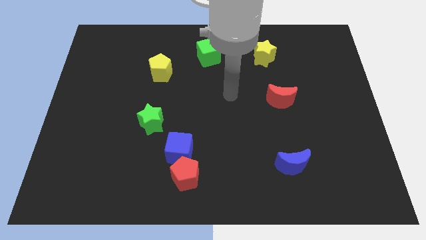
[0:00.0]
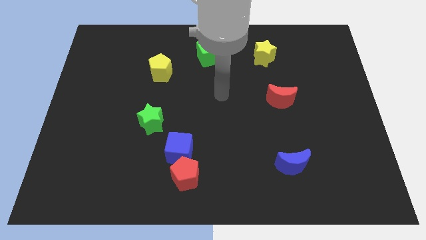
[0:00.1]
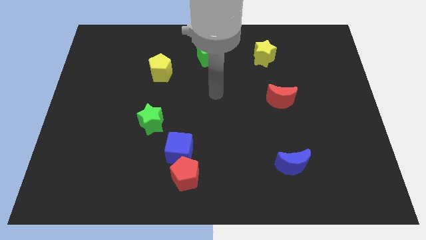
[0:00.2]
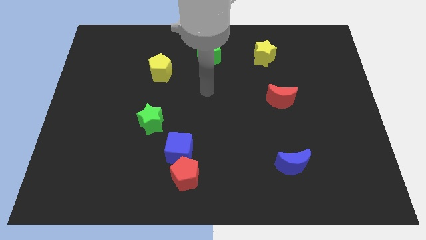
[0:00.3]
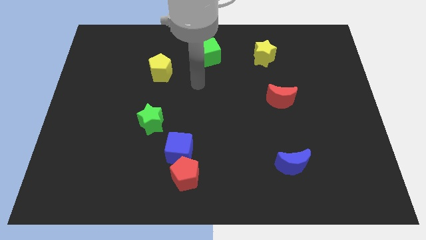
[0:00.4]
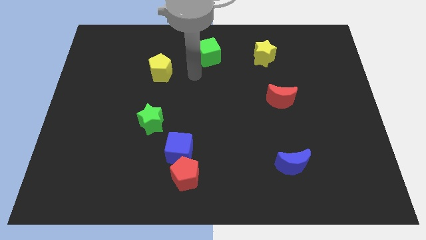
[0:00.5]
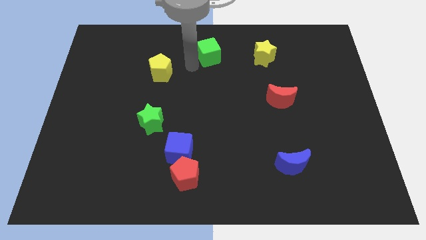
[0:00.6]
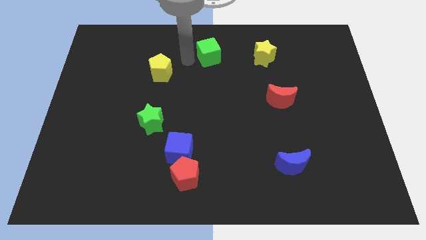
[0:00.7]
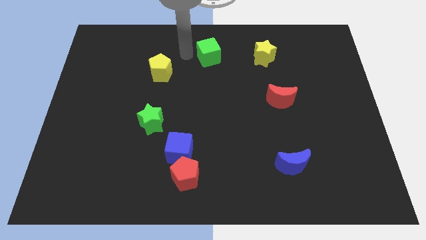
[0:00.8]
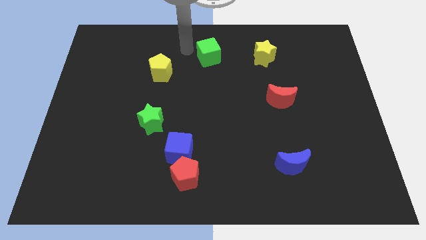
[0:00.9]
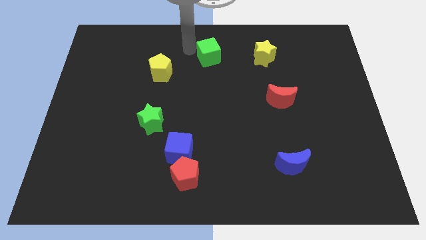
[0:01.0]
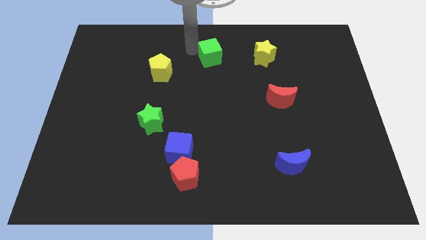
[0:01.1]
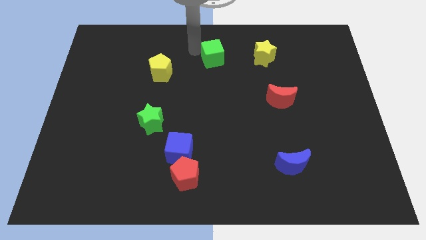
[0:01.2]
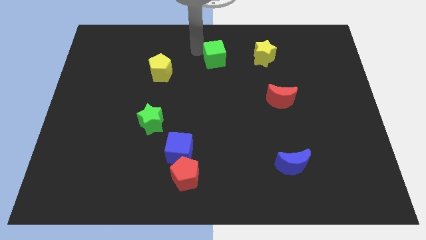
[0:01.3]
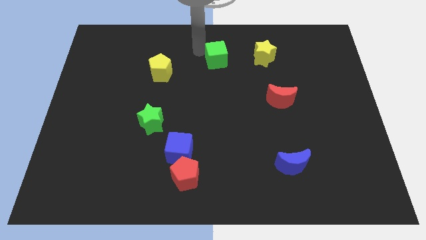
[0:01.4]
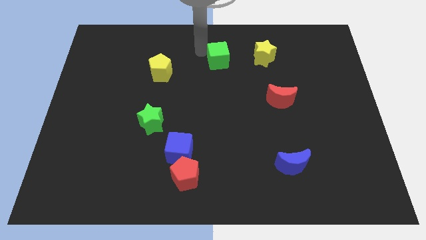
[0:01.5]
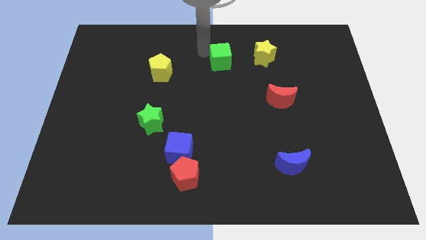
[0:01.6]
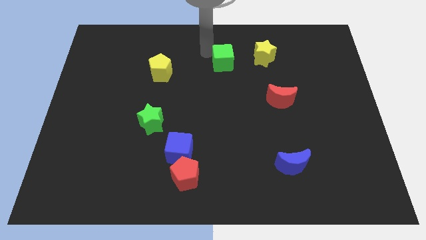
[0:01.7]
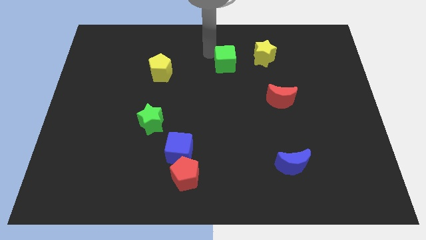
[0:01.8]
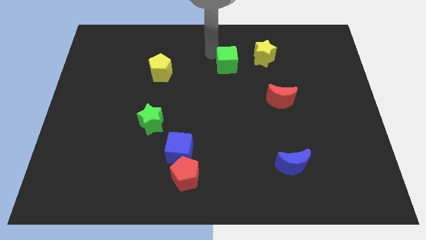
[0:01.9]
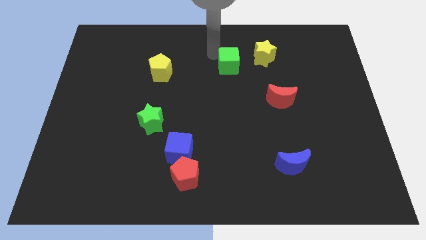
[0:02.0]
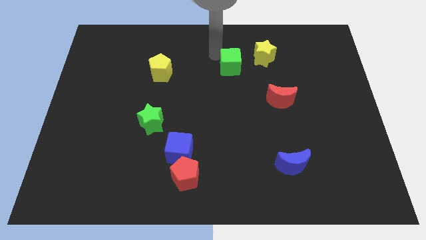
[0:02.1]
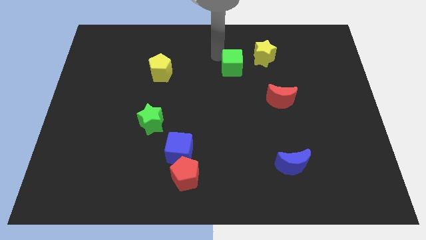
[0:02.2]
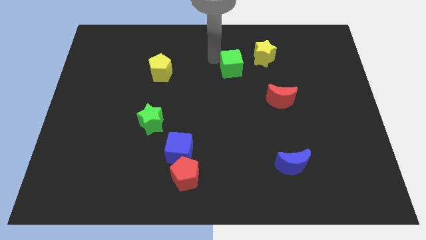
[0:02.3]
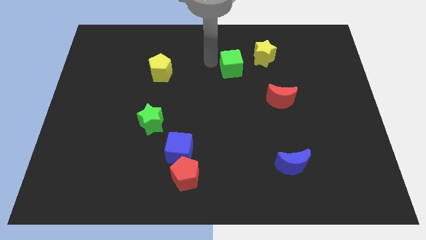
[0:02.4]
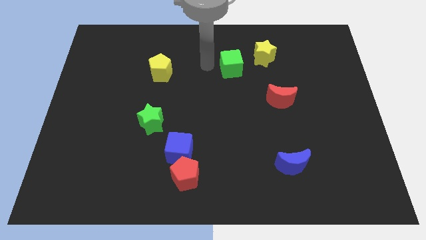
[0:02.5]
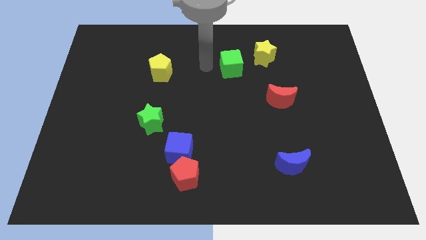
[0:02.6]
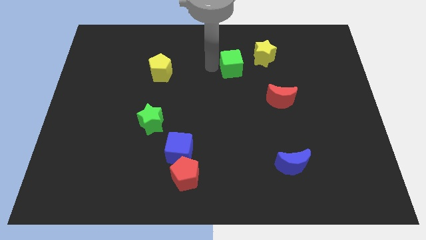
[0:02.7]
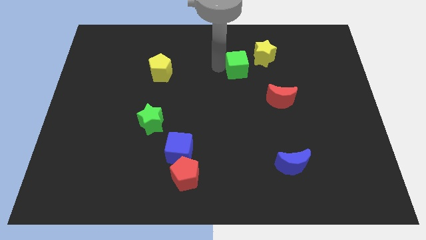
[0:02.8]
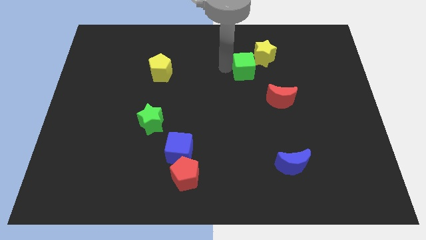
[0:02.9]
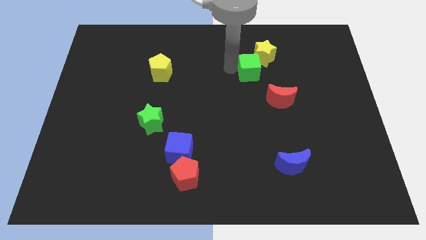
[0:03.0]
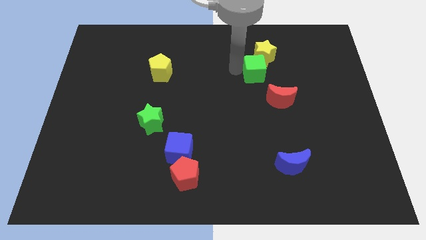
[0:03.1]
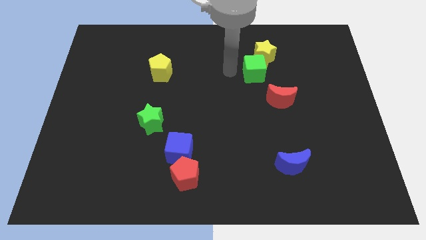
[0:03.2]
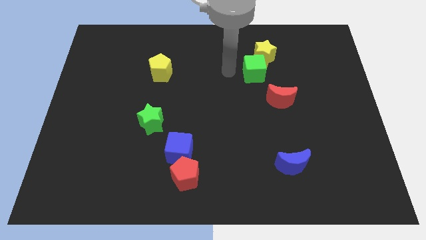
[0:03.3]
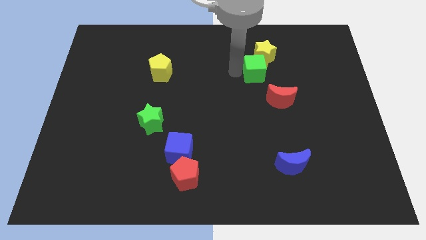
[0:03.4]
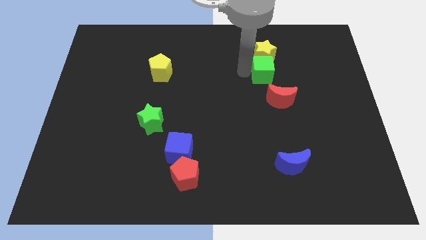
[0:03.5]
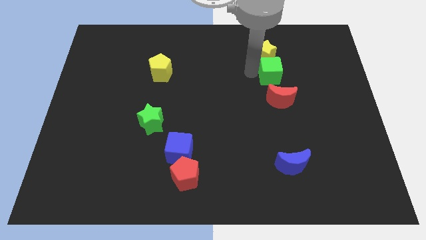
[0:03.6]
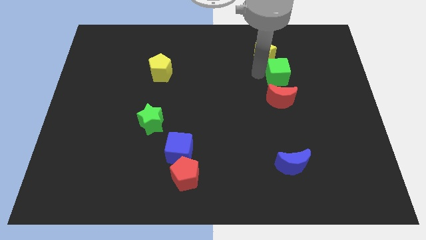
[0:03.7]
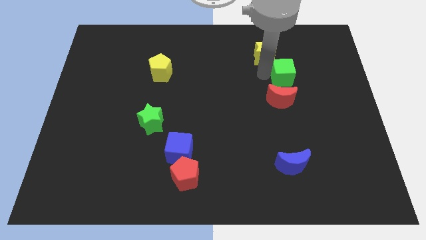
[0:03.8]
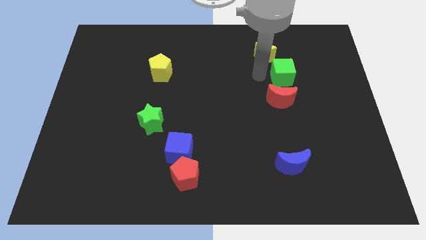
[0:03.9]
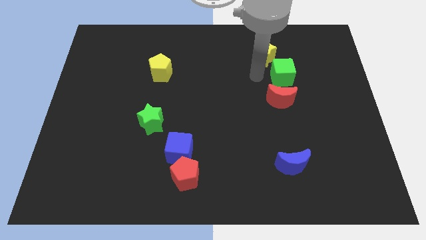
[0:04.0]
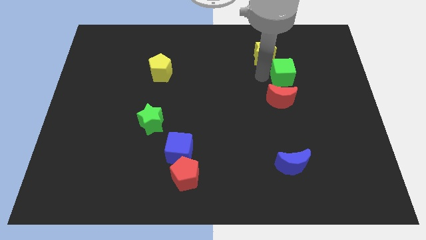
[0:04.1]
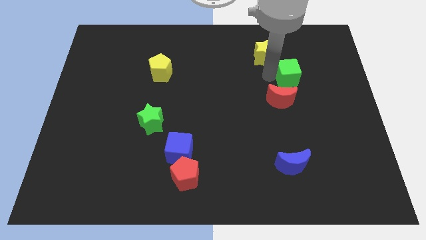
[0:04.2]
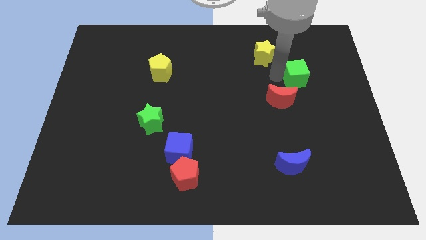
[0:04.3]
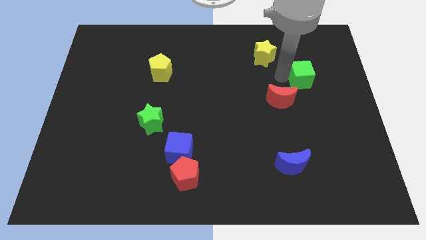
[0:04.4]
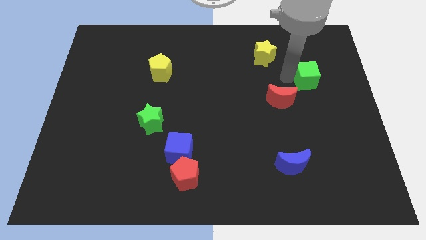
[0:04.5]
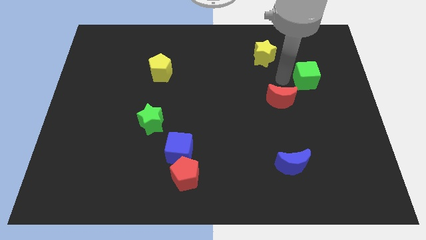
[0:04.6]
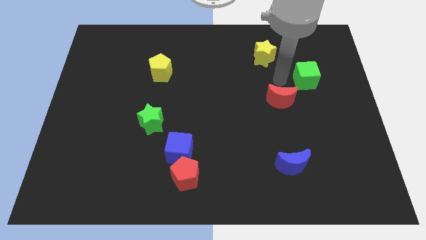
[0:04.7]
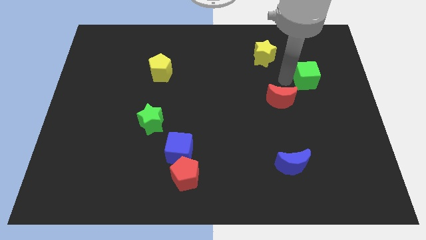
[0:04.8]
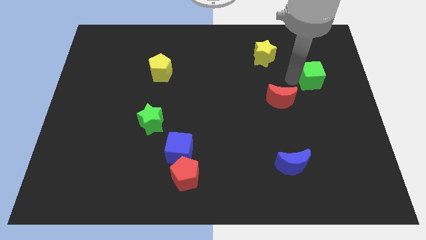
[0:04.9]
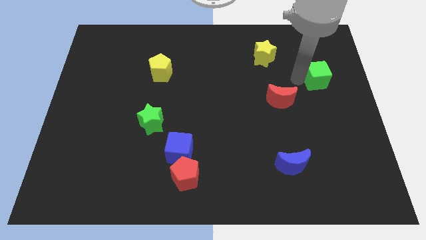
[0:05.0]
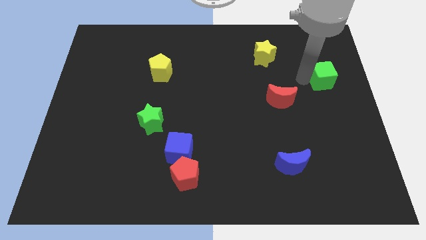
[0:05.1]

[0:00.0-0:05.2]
slide the green cube to the right side

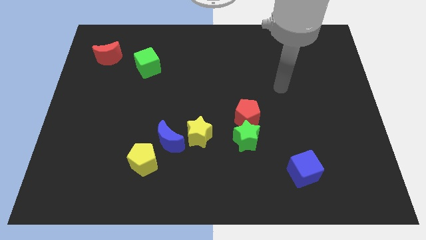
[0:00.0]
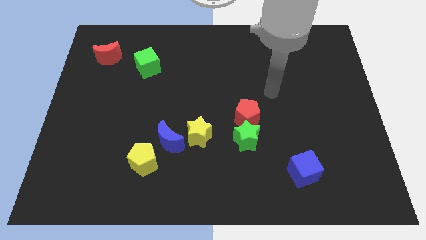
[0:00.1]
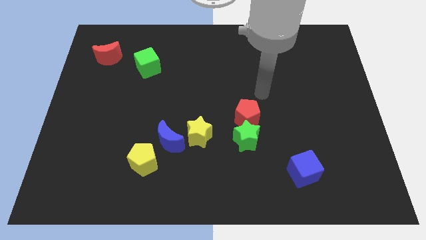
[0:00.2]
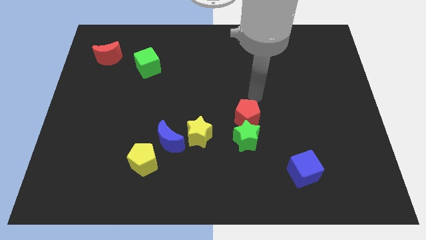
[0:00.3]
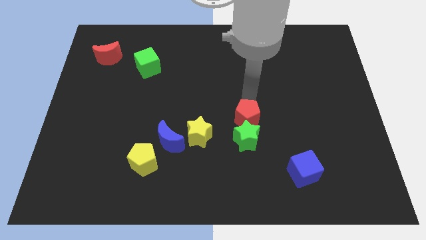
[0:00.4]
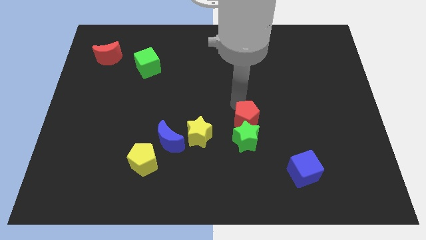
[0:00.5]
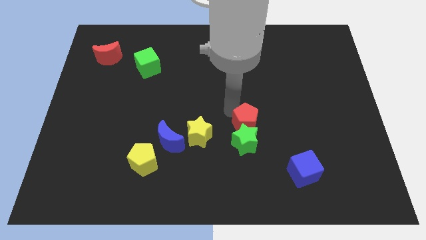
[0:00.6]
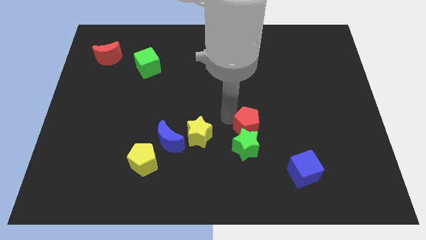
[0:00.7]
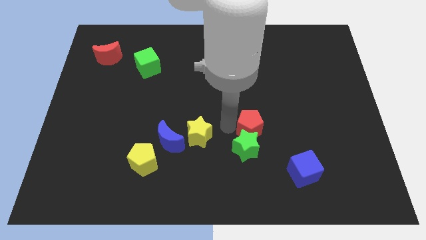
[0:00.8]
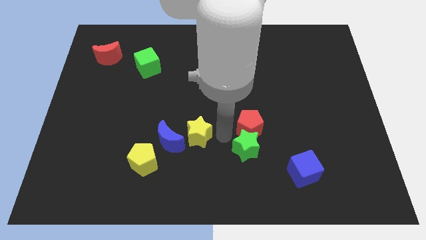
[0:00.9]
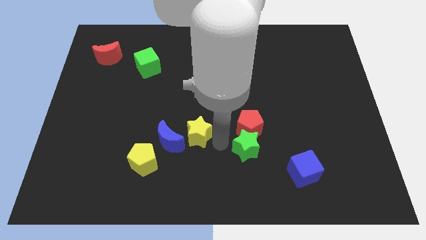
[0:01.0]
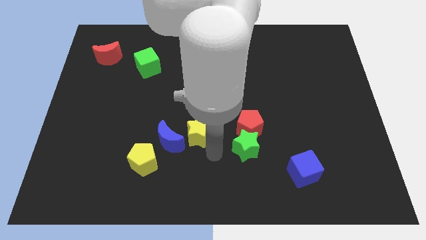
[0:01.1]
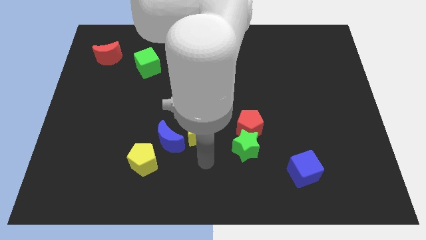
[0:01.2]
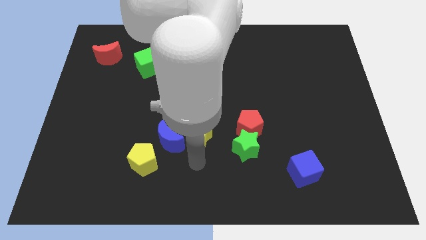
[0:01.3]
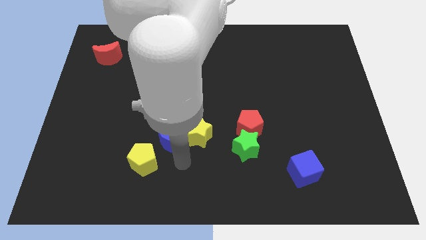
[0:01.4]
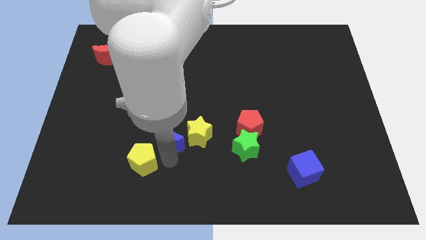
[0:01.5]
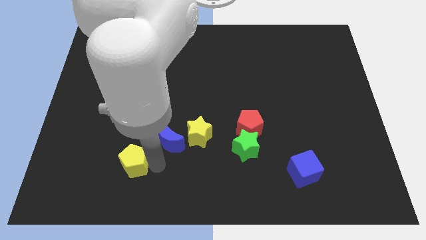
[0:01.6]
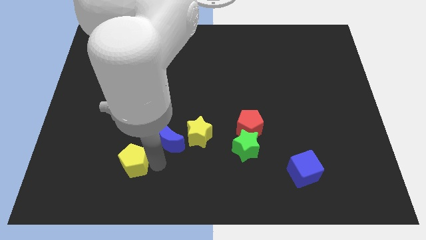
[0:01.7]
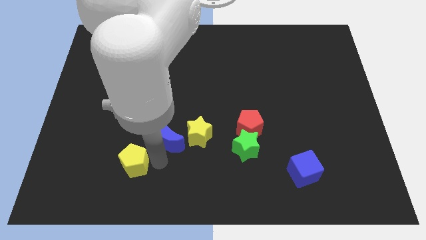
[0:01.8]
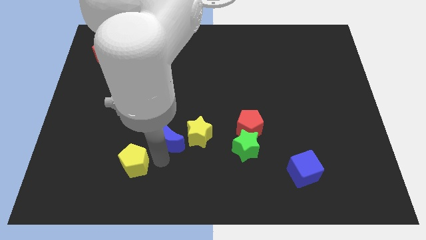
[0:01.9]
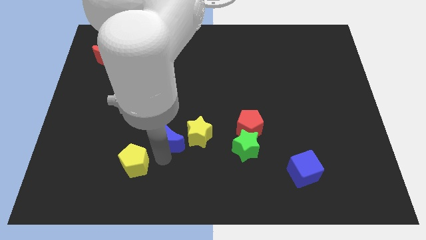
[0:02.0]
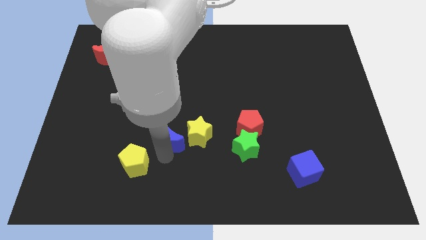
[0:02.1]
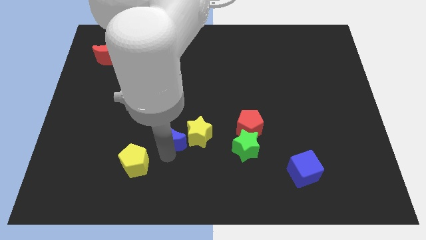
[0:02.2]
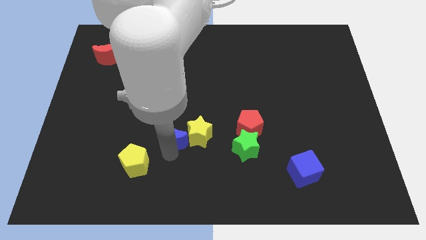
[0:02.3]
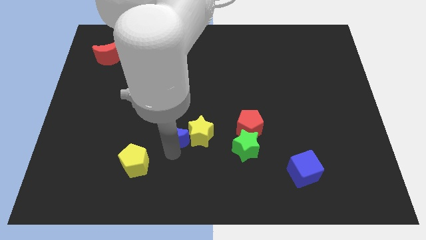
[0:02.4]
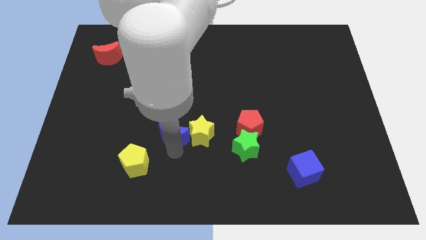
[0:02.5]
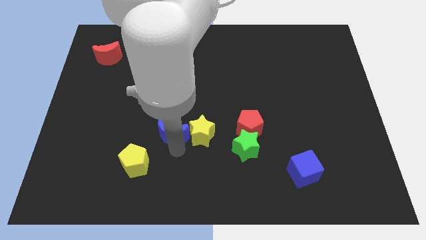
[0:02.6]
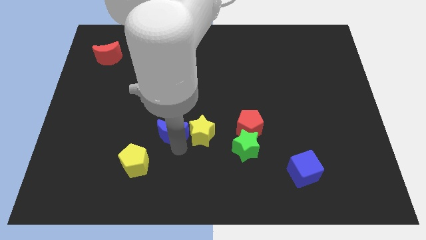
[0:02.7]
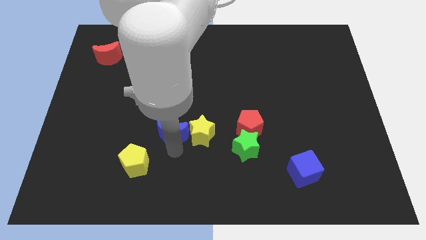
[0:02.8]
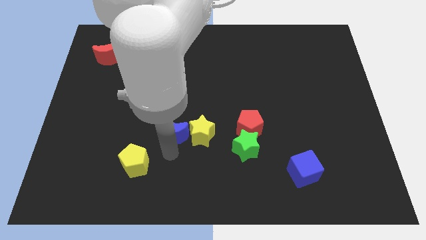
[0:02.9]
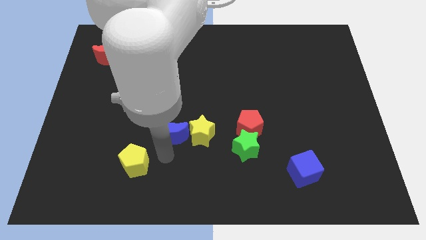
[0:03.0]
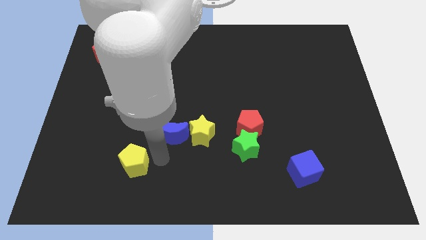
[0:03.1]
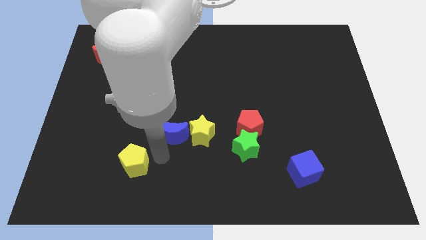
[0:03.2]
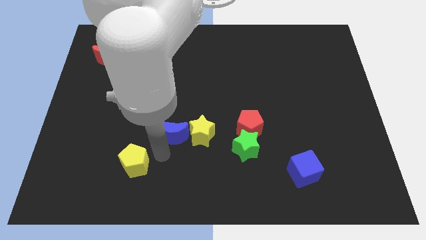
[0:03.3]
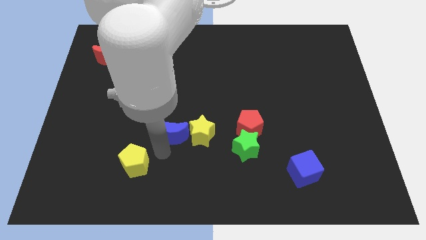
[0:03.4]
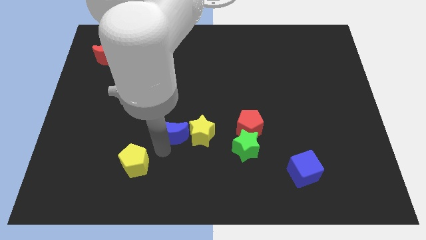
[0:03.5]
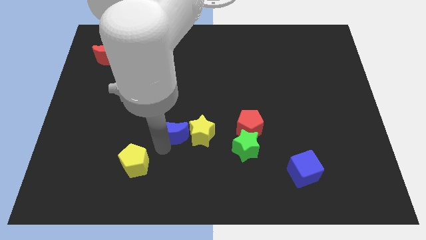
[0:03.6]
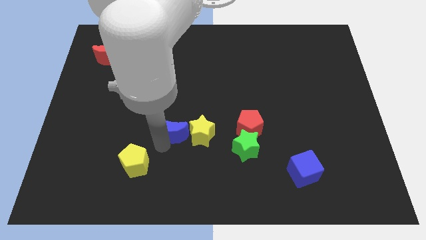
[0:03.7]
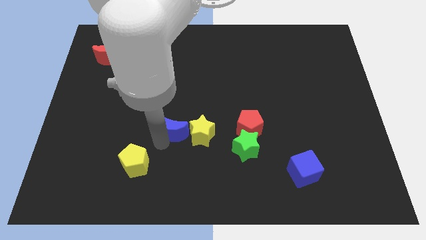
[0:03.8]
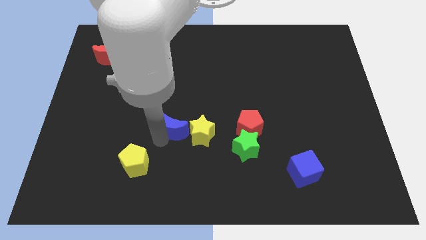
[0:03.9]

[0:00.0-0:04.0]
move the blue moon to the center
